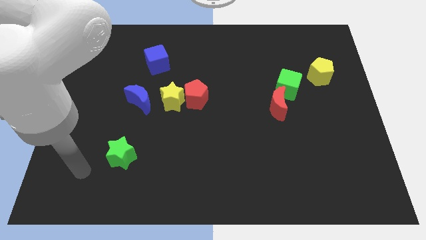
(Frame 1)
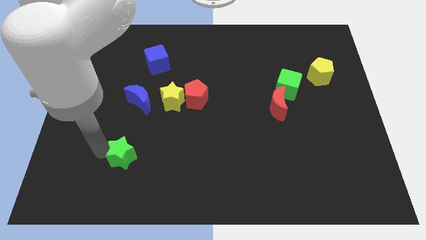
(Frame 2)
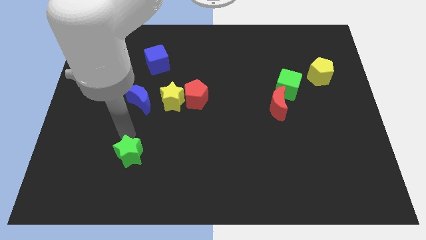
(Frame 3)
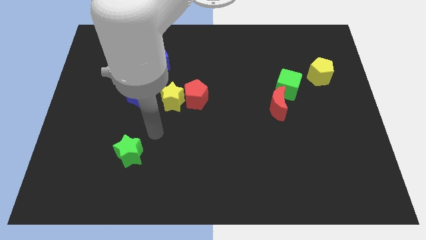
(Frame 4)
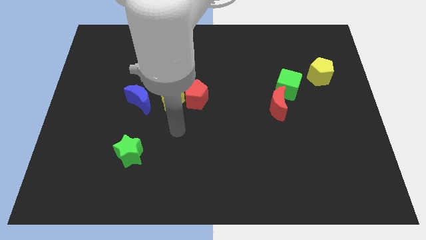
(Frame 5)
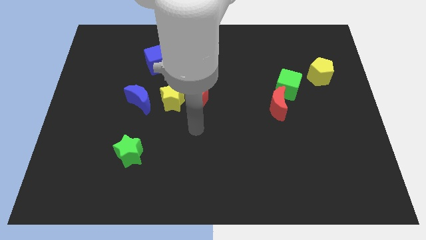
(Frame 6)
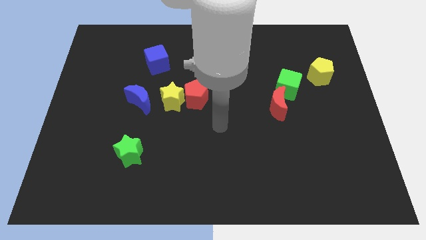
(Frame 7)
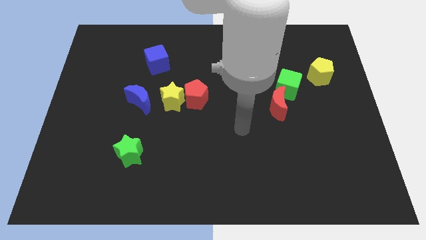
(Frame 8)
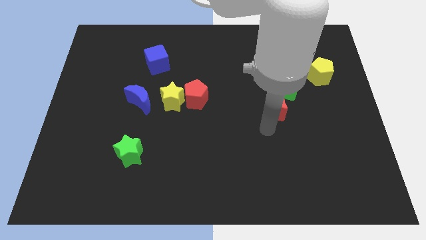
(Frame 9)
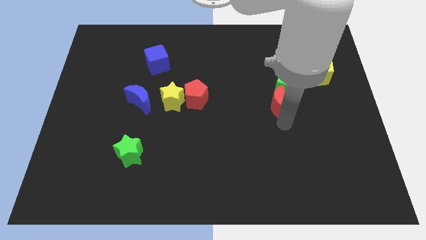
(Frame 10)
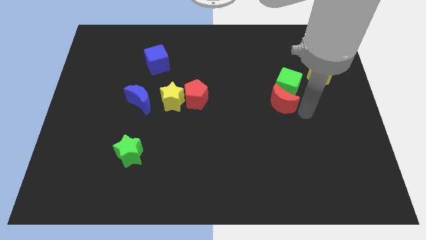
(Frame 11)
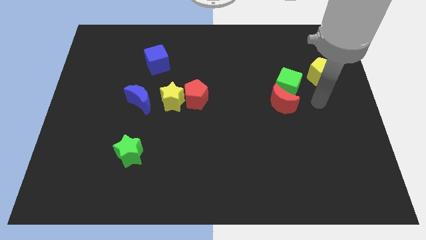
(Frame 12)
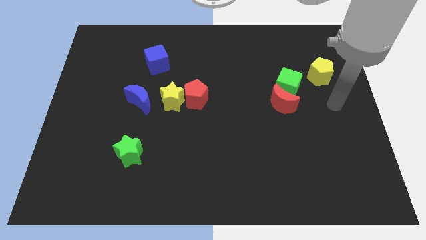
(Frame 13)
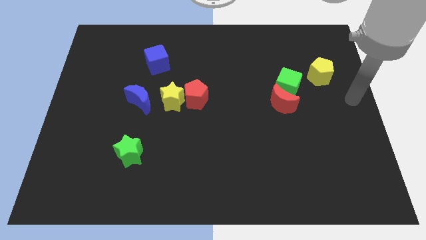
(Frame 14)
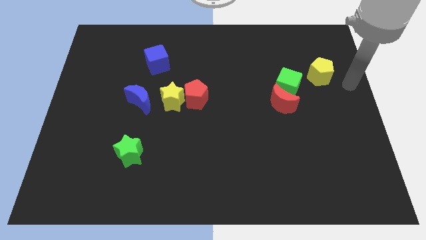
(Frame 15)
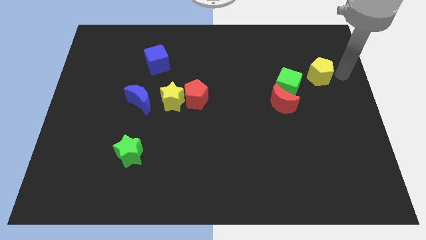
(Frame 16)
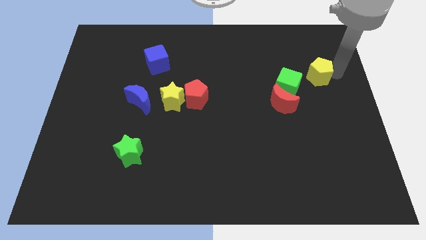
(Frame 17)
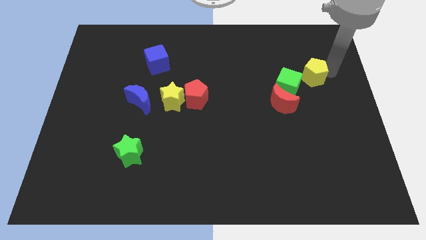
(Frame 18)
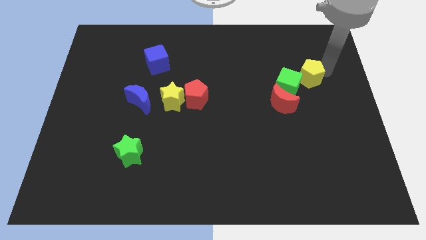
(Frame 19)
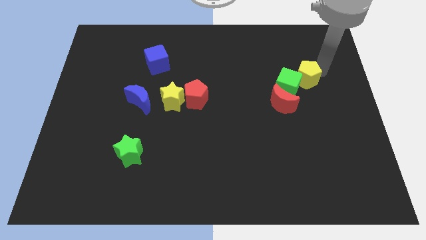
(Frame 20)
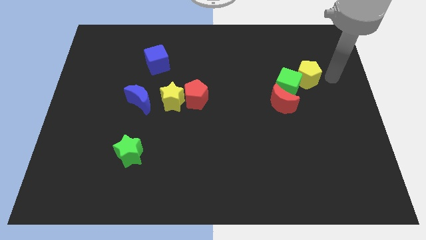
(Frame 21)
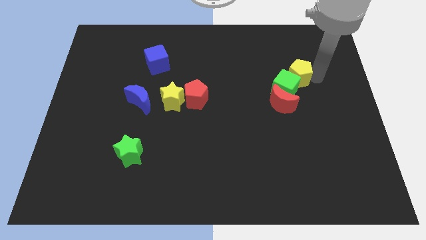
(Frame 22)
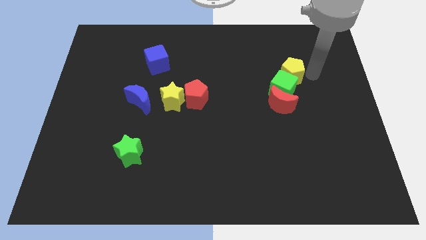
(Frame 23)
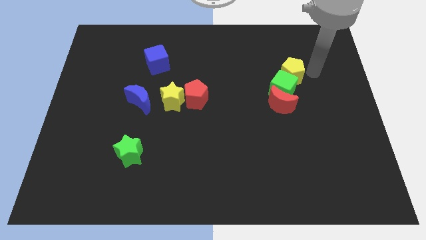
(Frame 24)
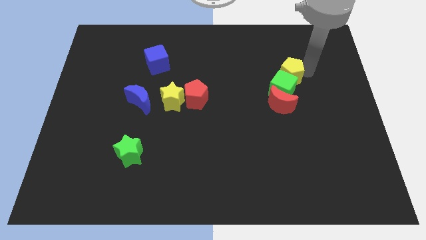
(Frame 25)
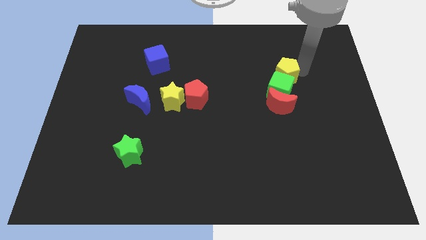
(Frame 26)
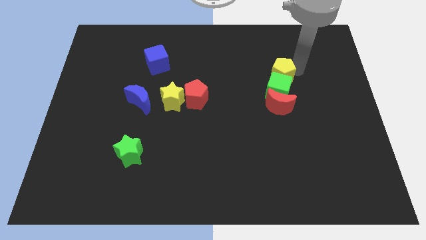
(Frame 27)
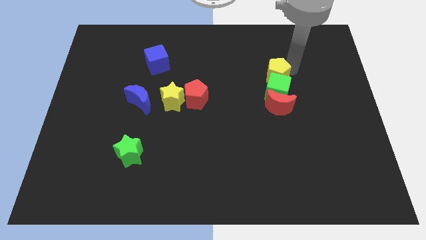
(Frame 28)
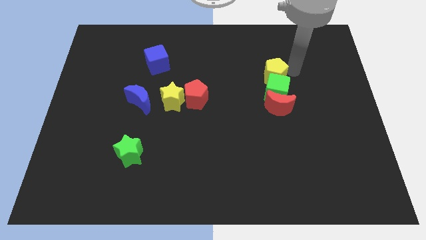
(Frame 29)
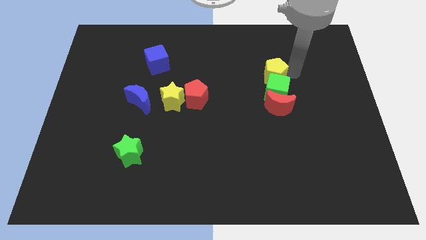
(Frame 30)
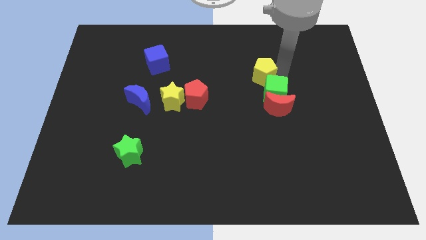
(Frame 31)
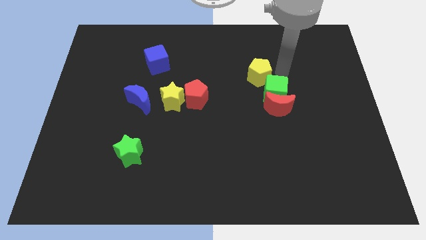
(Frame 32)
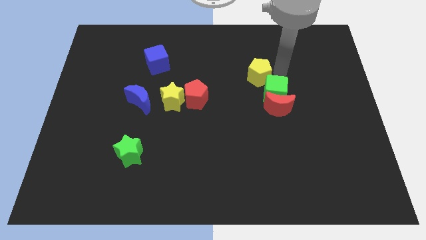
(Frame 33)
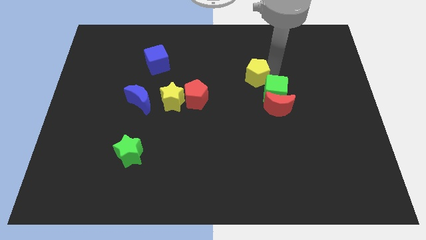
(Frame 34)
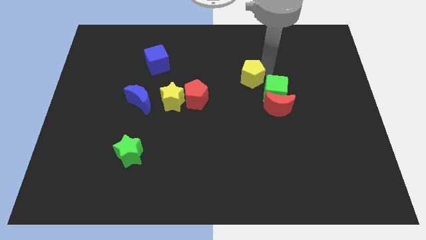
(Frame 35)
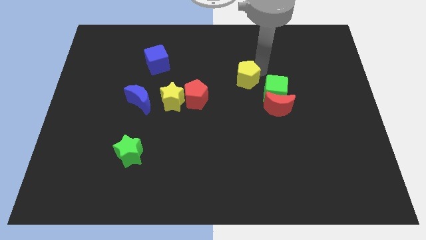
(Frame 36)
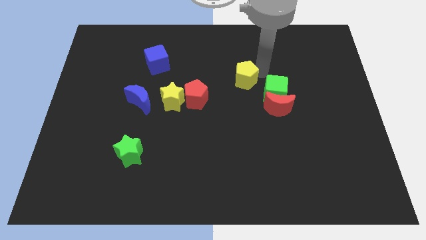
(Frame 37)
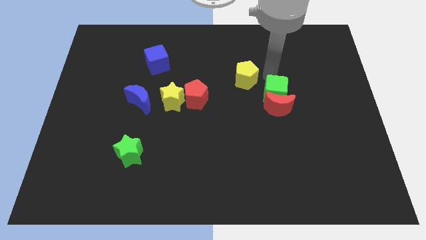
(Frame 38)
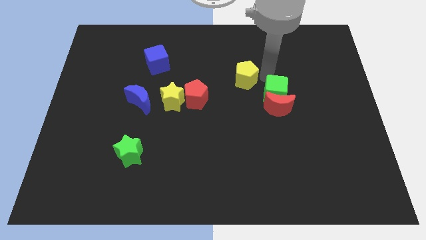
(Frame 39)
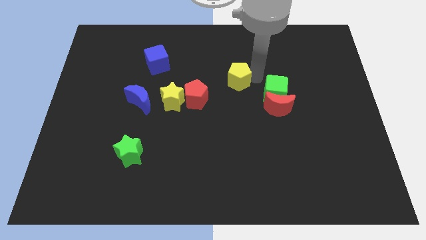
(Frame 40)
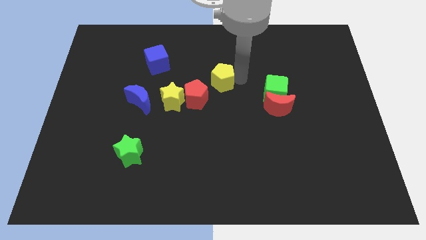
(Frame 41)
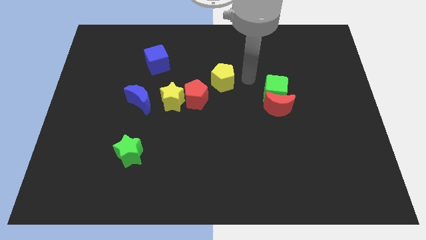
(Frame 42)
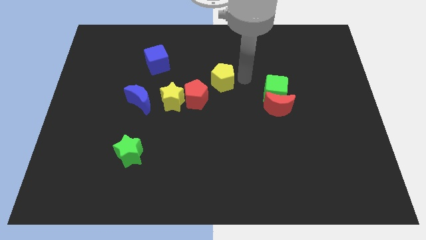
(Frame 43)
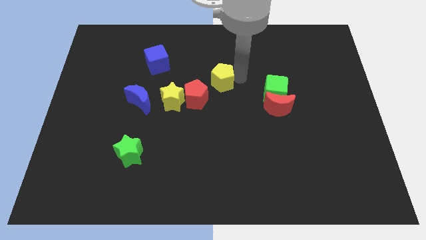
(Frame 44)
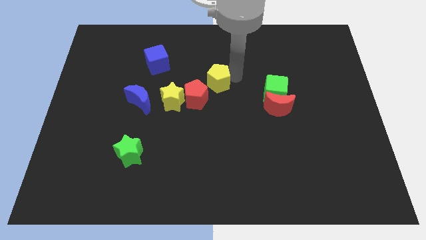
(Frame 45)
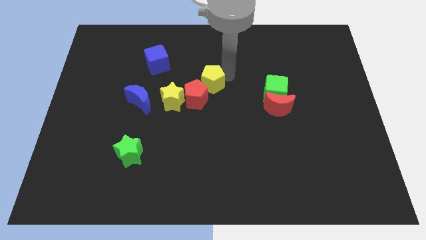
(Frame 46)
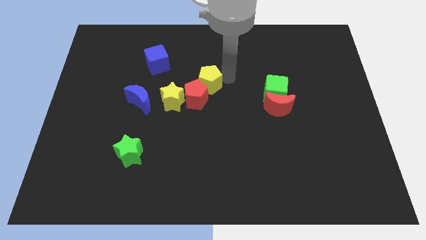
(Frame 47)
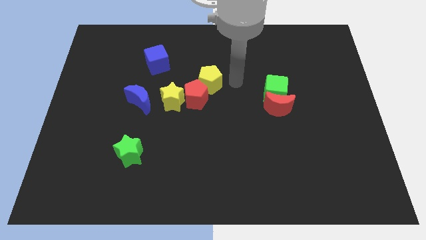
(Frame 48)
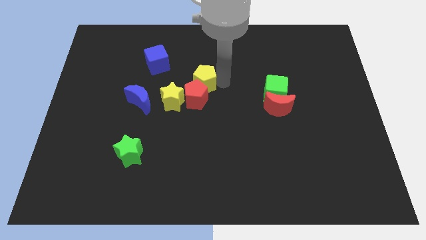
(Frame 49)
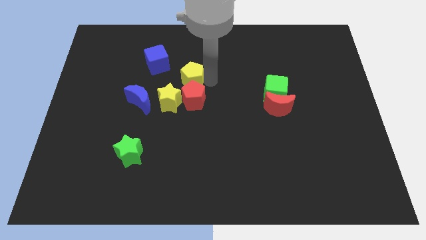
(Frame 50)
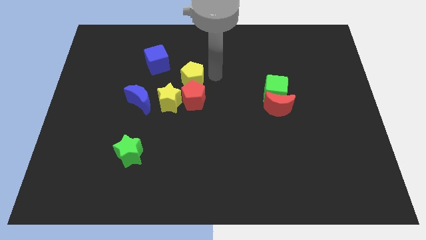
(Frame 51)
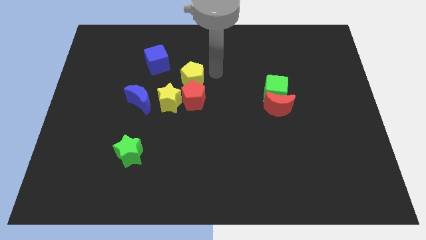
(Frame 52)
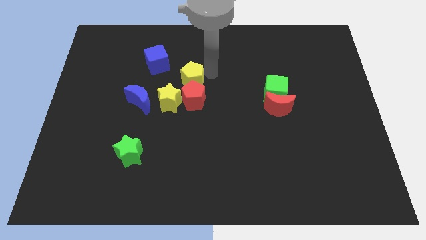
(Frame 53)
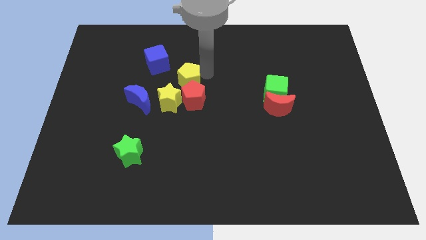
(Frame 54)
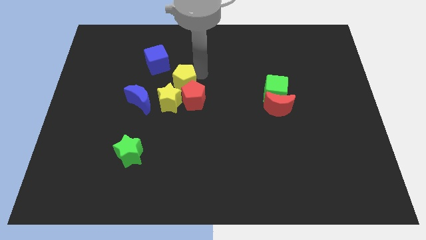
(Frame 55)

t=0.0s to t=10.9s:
push the yellow pentagon diagonally up and to the right of the blue moon

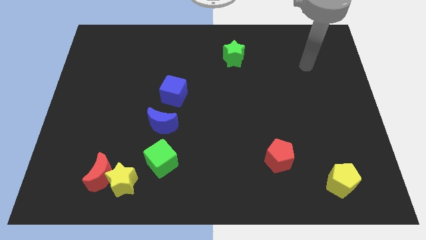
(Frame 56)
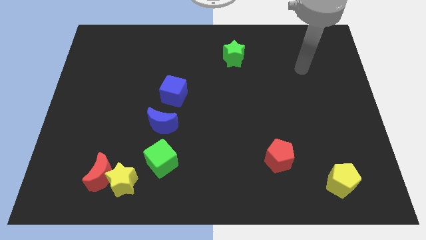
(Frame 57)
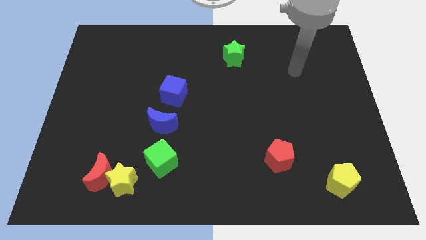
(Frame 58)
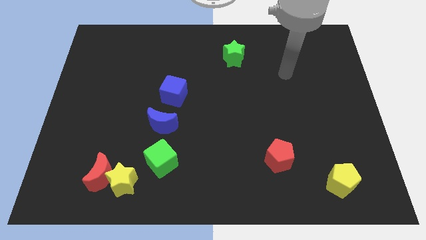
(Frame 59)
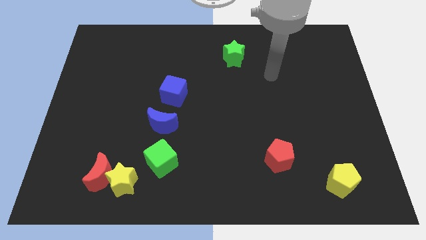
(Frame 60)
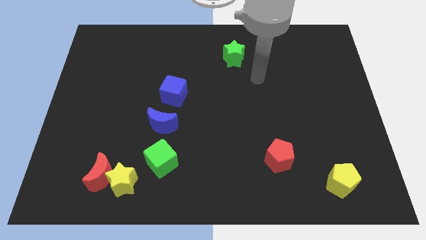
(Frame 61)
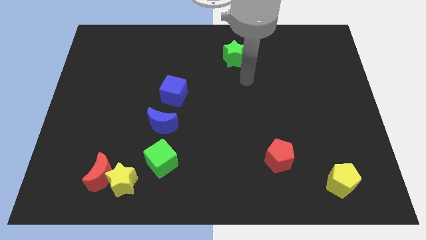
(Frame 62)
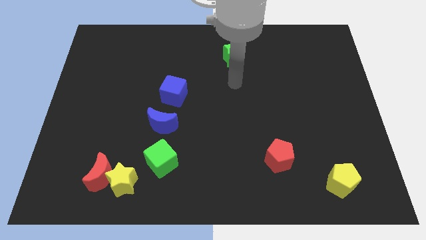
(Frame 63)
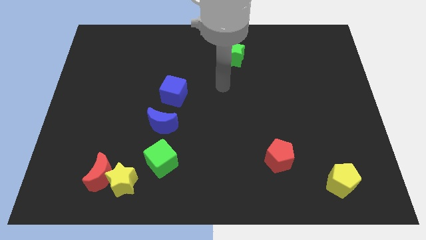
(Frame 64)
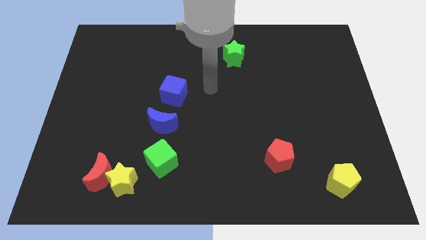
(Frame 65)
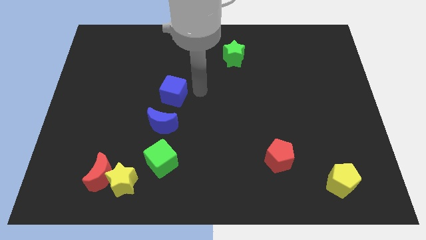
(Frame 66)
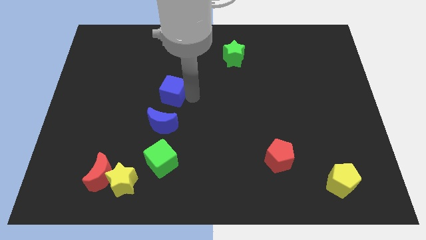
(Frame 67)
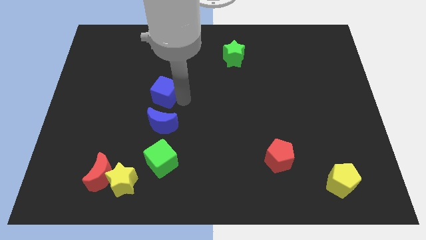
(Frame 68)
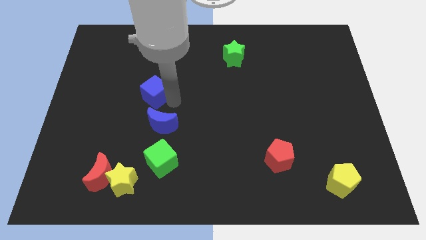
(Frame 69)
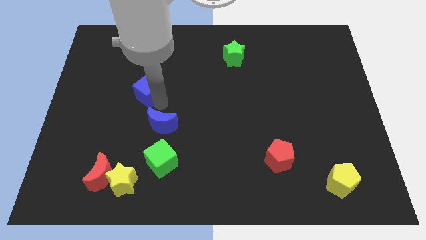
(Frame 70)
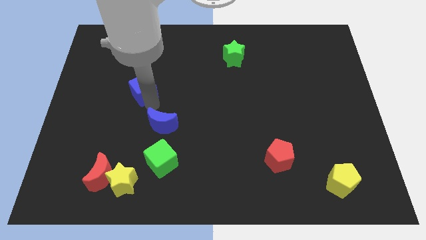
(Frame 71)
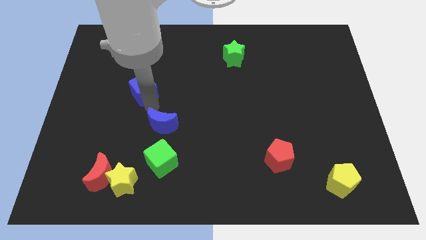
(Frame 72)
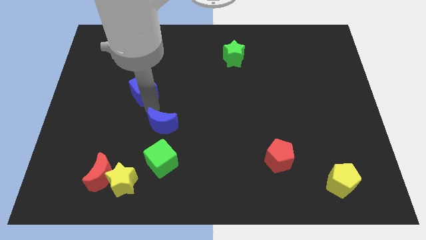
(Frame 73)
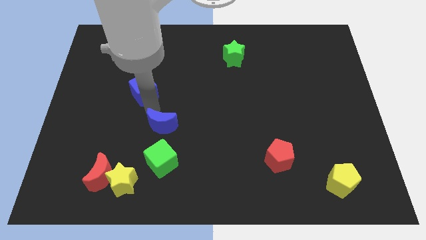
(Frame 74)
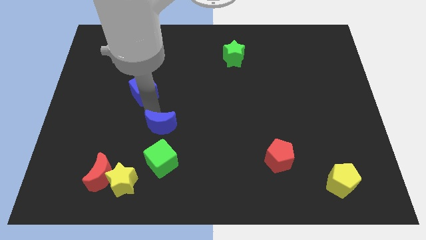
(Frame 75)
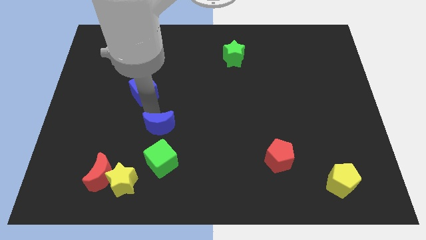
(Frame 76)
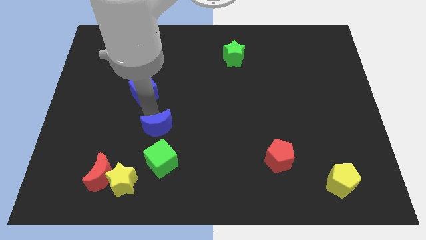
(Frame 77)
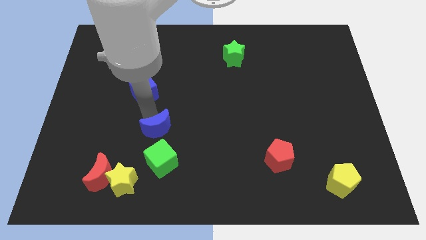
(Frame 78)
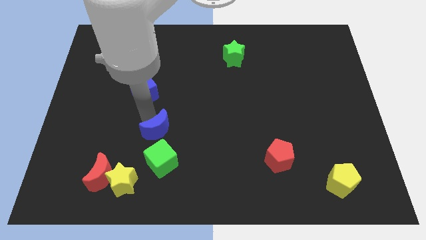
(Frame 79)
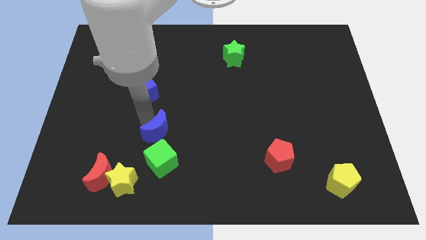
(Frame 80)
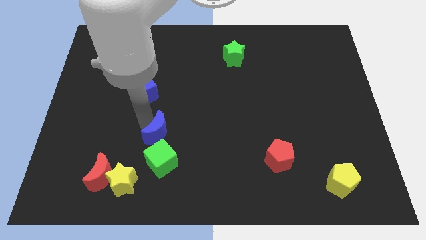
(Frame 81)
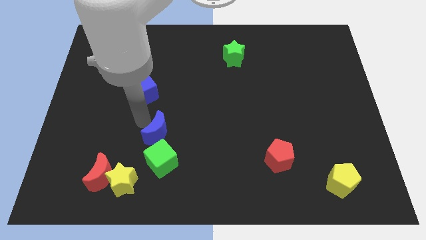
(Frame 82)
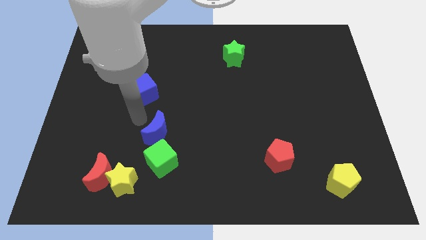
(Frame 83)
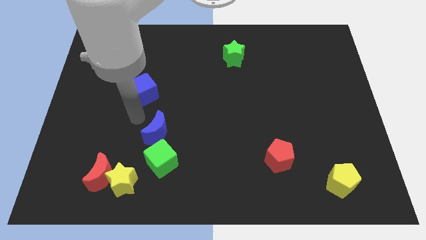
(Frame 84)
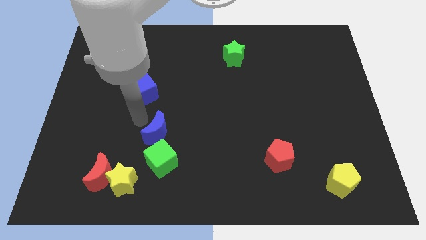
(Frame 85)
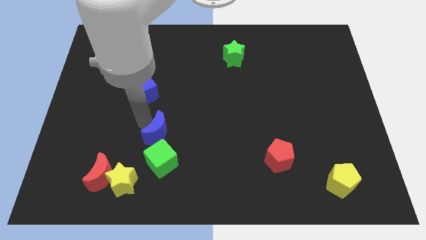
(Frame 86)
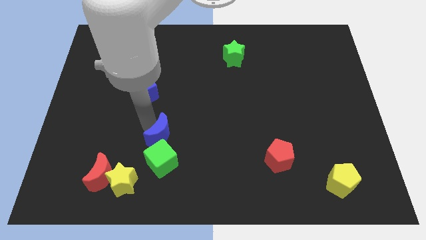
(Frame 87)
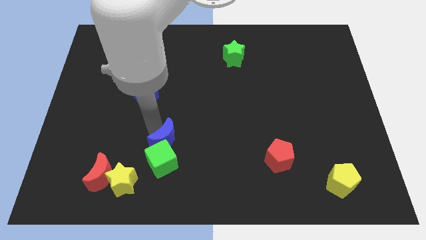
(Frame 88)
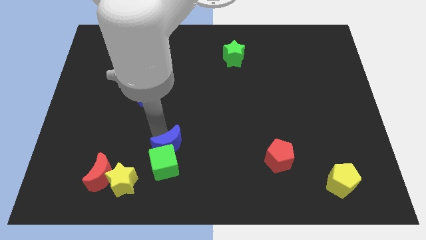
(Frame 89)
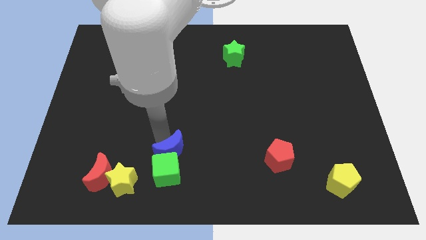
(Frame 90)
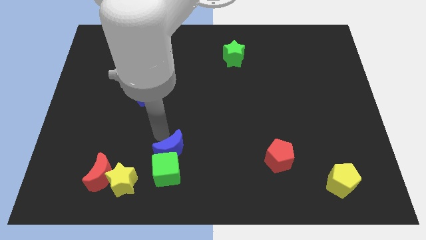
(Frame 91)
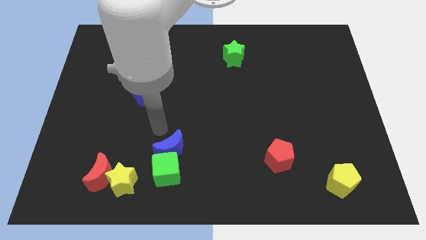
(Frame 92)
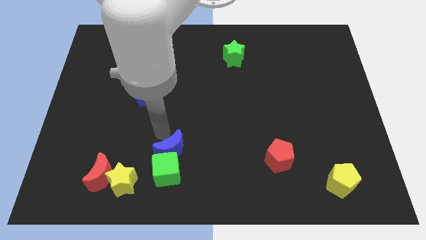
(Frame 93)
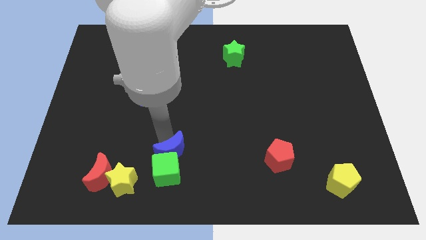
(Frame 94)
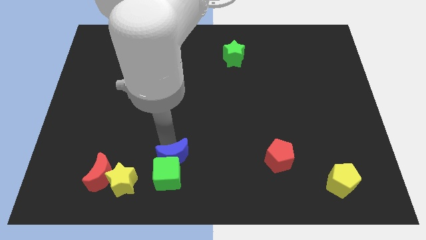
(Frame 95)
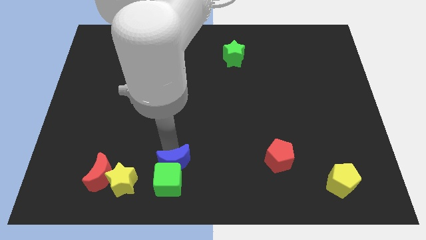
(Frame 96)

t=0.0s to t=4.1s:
move the blue moon right of the red moon
